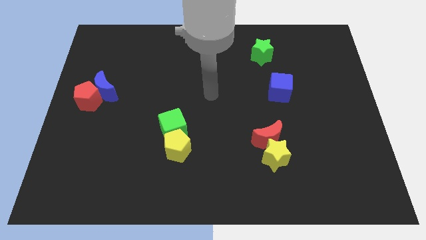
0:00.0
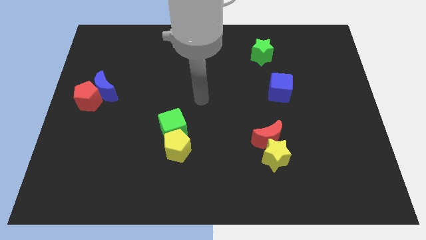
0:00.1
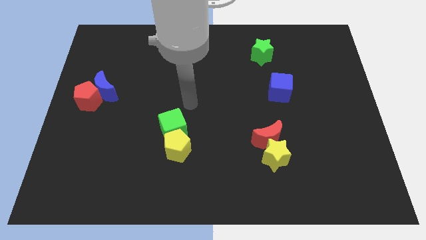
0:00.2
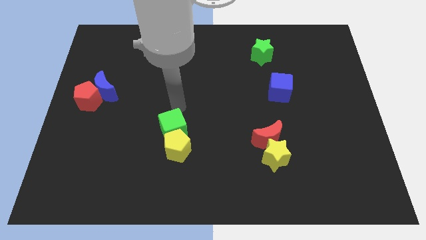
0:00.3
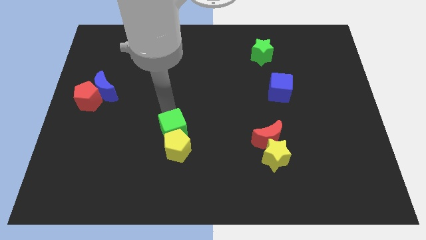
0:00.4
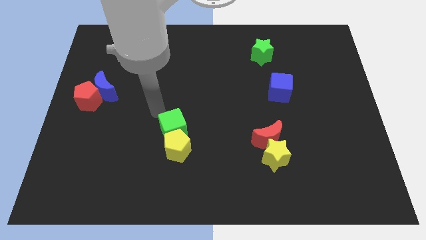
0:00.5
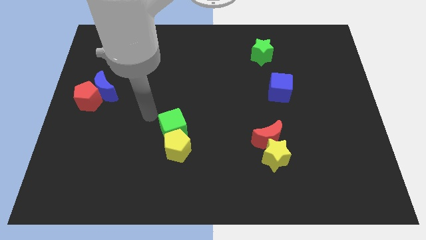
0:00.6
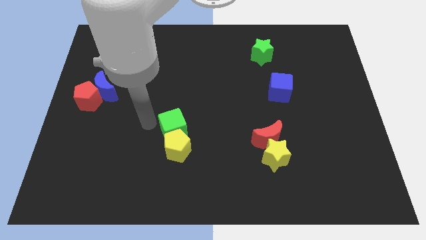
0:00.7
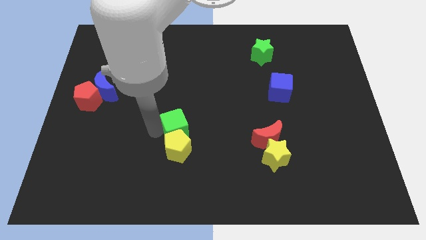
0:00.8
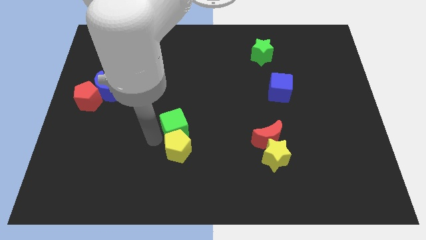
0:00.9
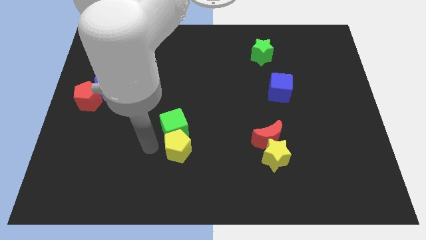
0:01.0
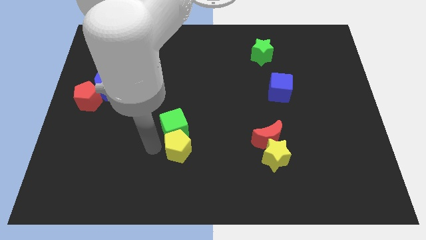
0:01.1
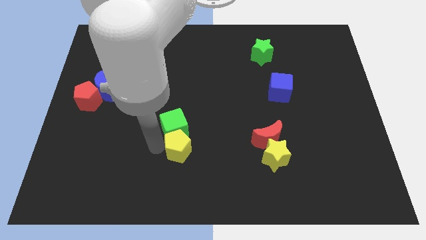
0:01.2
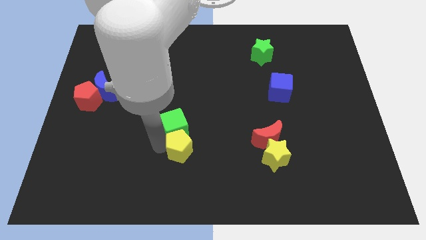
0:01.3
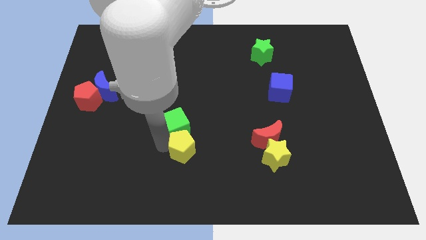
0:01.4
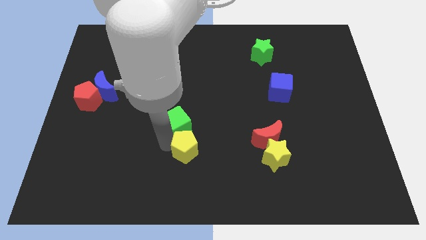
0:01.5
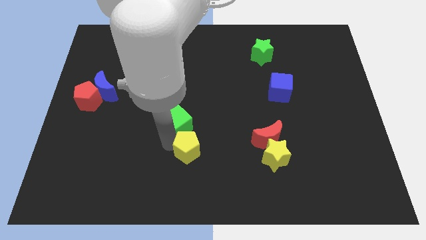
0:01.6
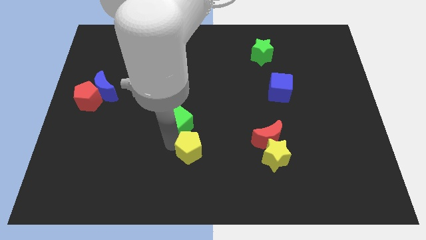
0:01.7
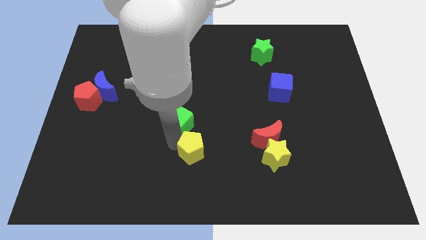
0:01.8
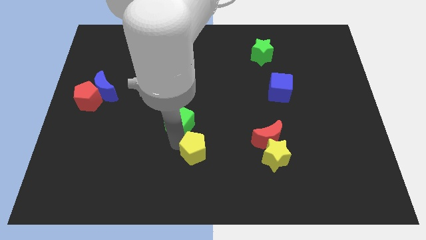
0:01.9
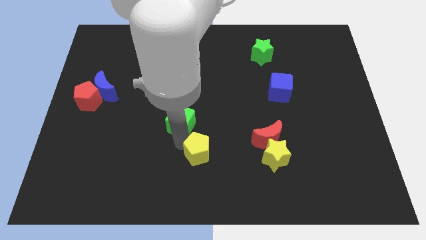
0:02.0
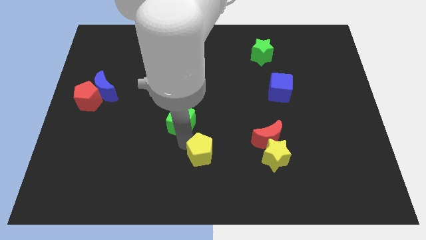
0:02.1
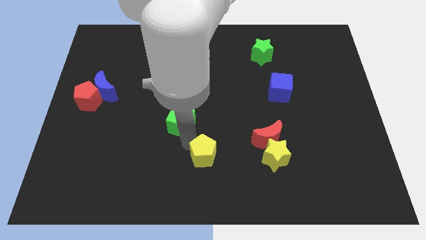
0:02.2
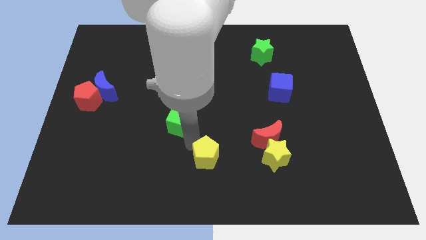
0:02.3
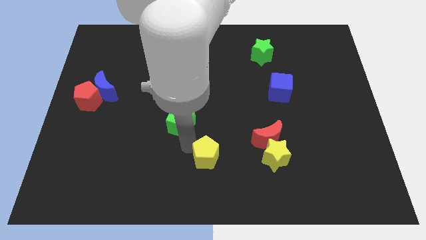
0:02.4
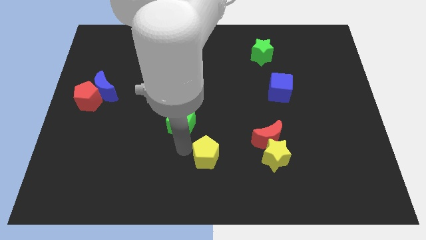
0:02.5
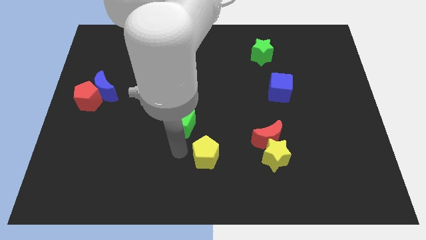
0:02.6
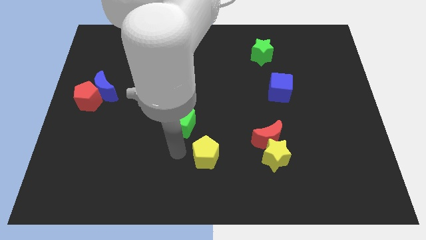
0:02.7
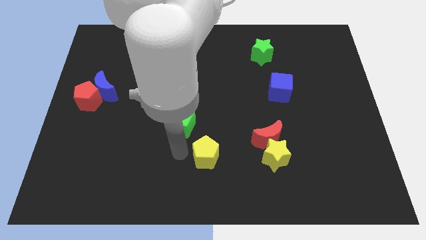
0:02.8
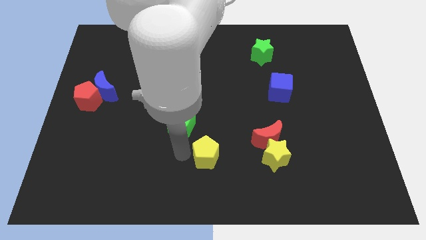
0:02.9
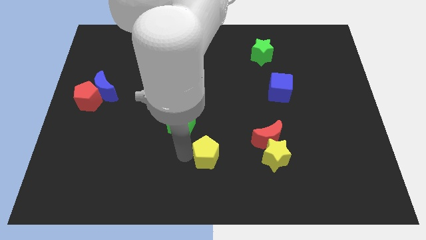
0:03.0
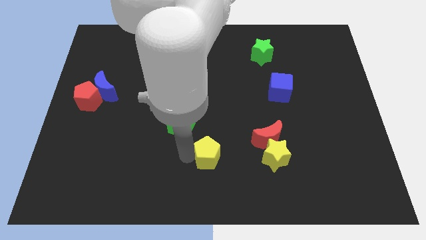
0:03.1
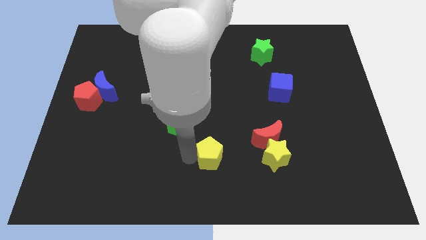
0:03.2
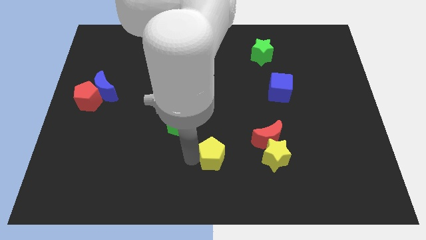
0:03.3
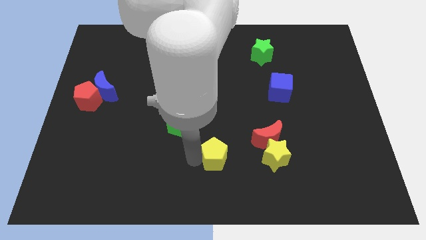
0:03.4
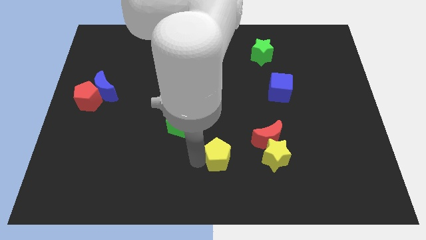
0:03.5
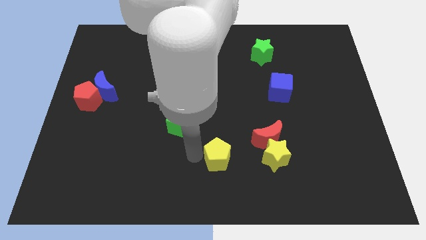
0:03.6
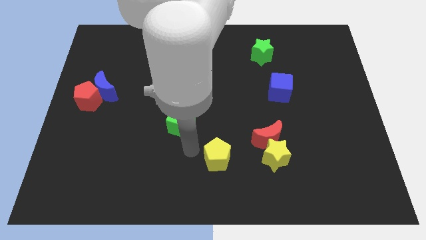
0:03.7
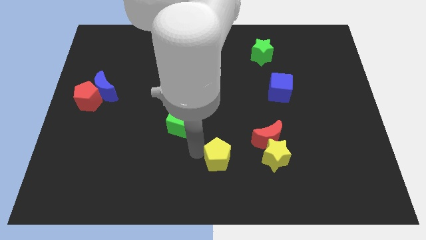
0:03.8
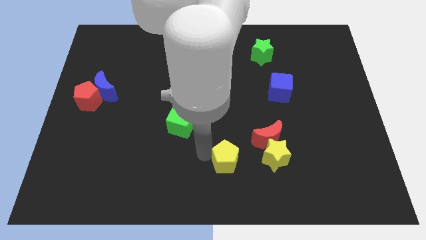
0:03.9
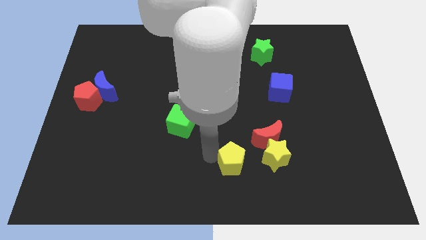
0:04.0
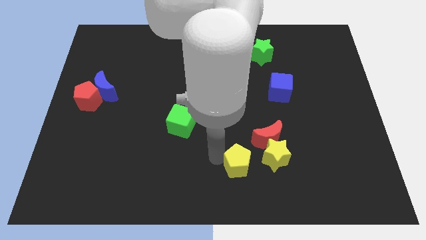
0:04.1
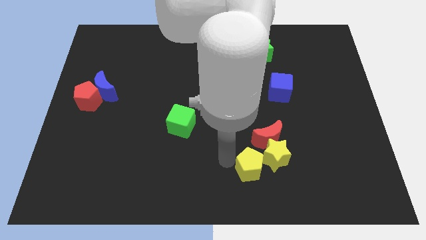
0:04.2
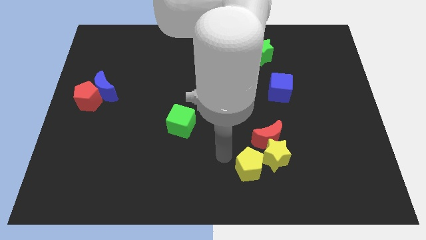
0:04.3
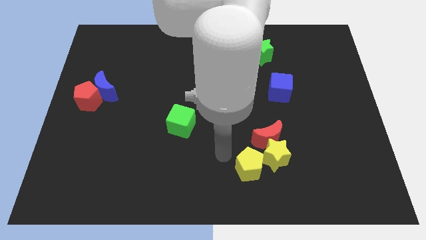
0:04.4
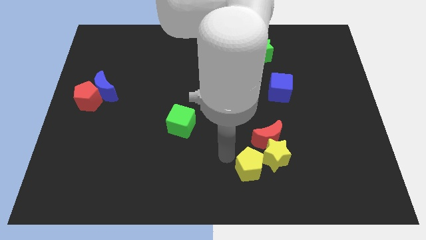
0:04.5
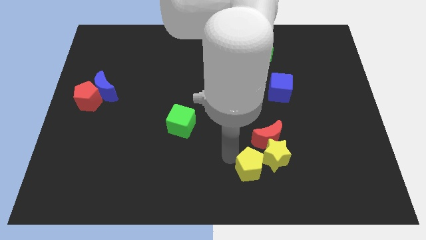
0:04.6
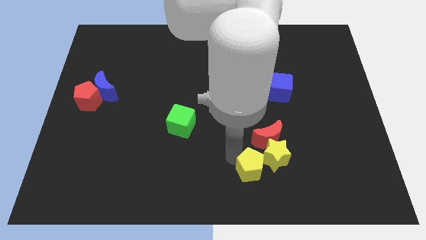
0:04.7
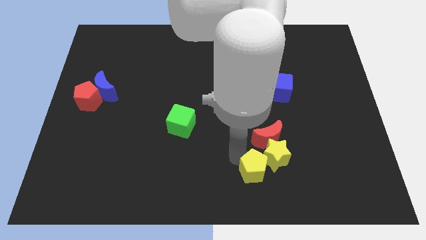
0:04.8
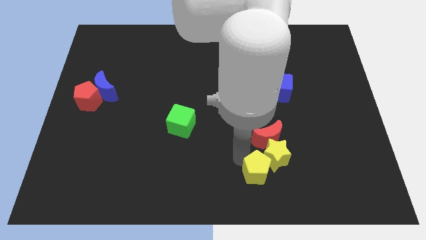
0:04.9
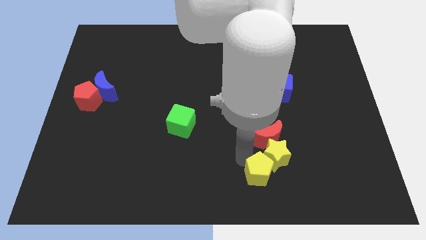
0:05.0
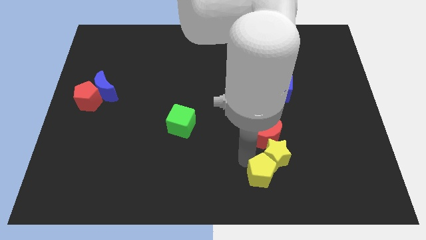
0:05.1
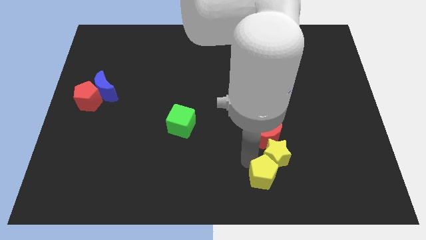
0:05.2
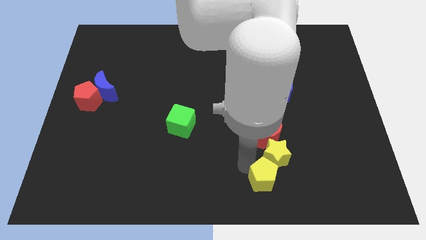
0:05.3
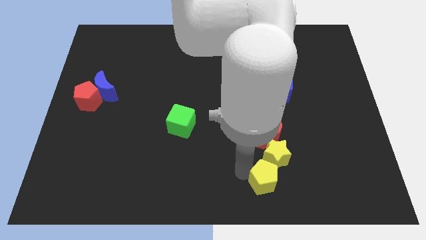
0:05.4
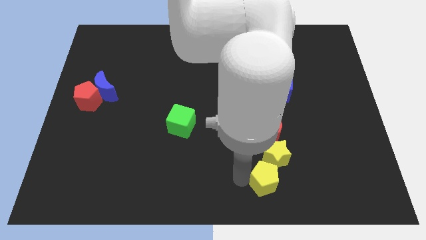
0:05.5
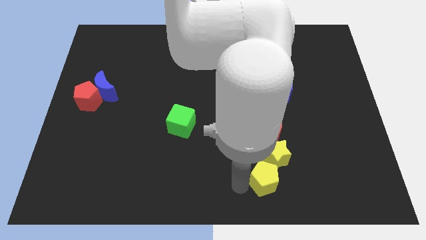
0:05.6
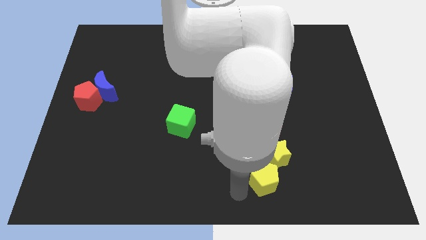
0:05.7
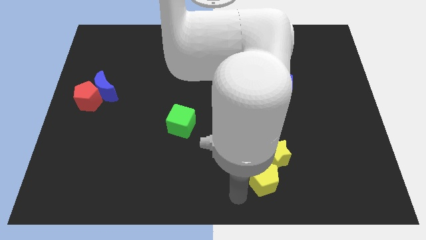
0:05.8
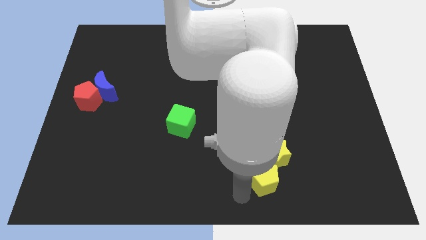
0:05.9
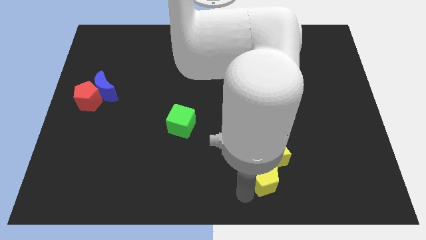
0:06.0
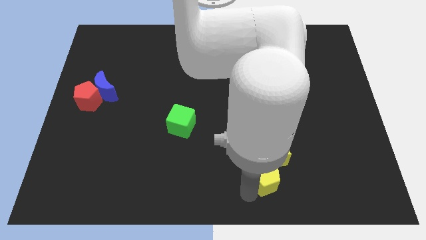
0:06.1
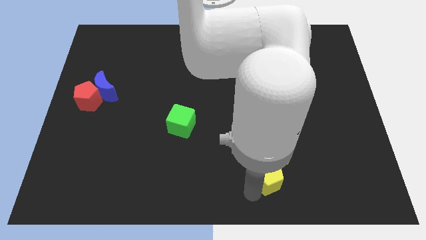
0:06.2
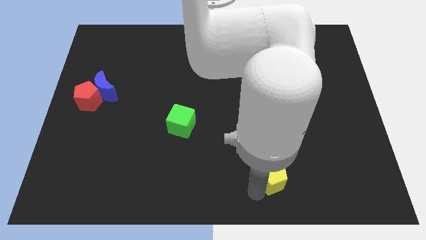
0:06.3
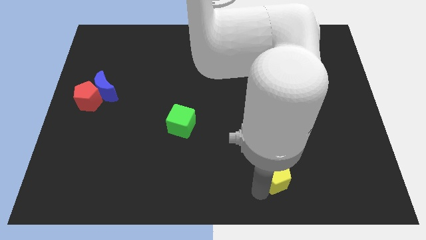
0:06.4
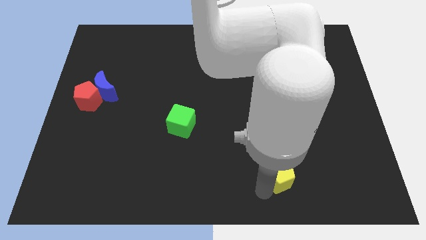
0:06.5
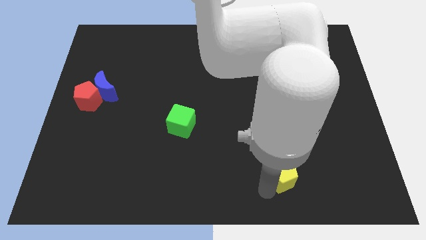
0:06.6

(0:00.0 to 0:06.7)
push the yellow pentagon right

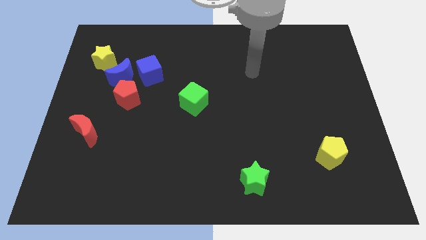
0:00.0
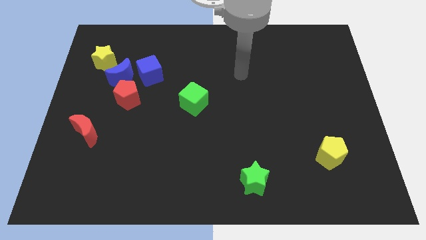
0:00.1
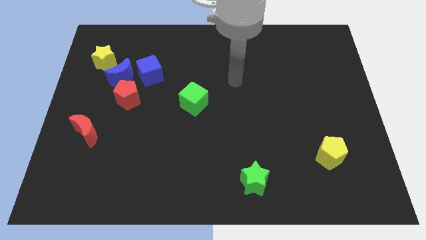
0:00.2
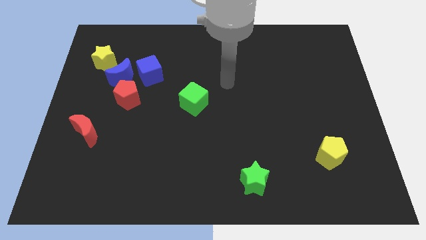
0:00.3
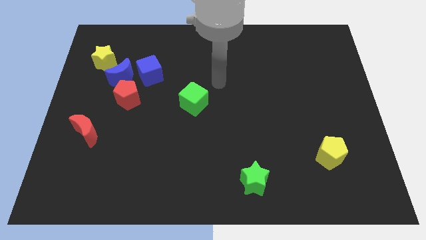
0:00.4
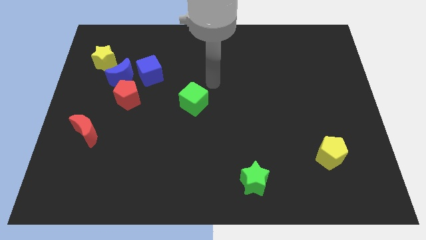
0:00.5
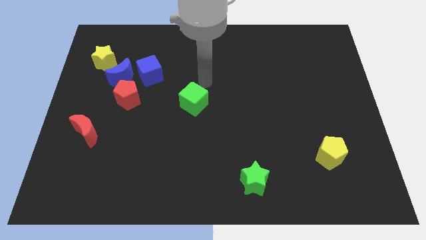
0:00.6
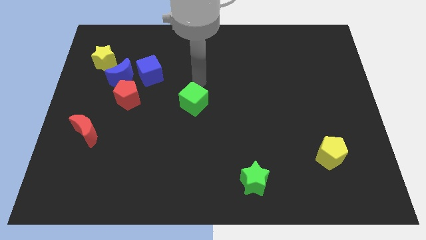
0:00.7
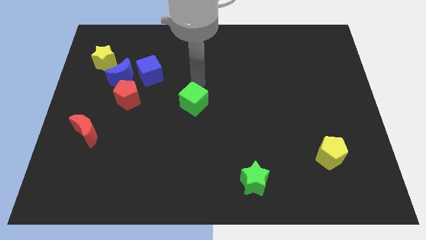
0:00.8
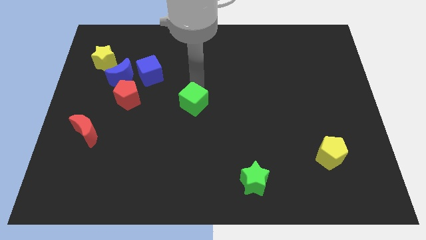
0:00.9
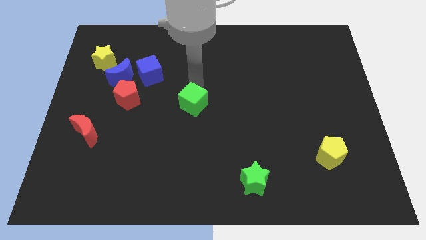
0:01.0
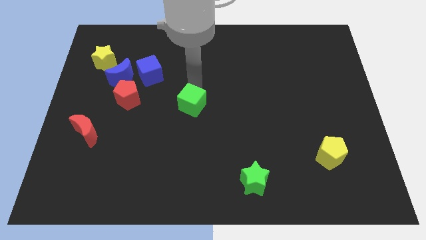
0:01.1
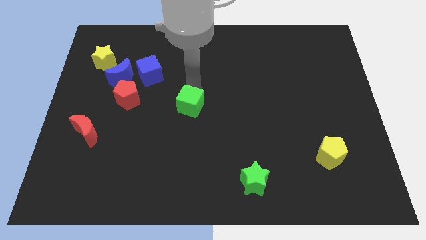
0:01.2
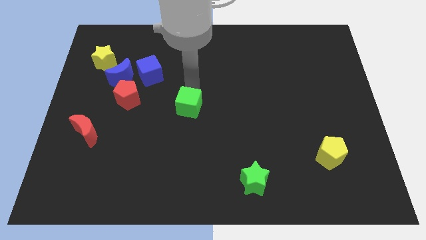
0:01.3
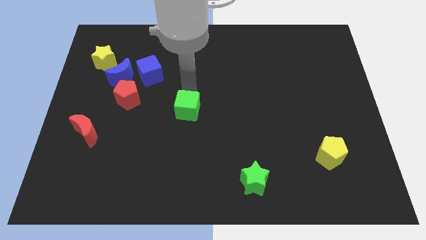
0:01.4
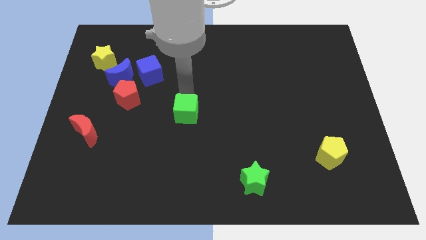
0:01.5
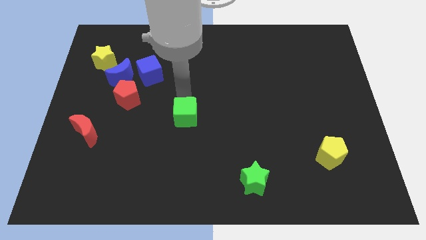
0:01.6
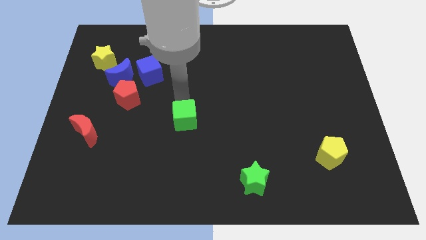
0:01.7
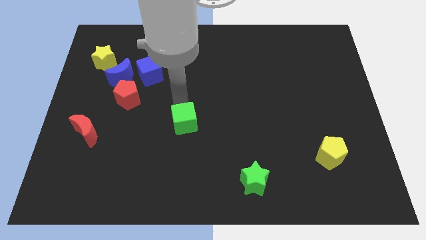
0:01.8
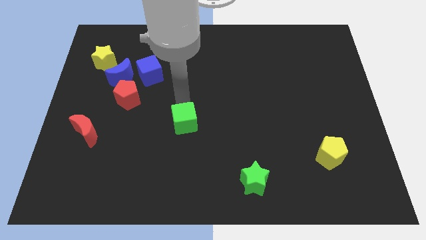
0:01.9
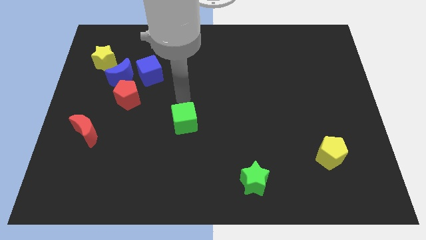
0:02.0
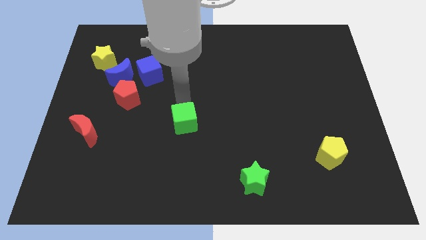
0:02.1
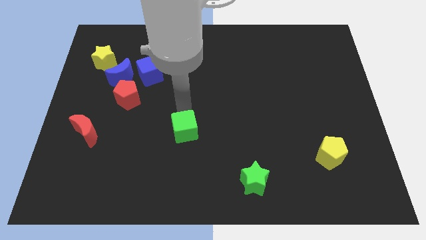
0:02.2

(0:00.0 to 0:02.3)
push the green cube somewhat downwards
